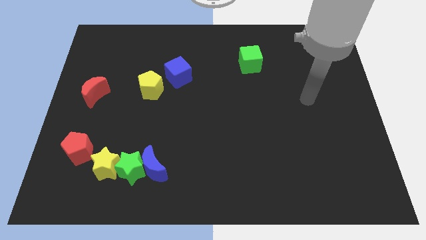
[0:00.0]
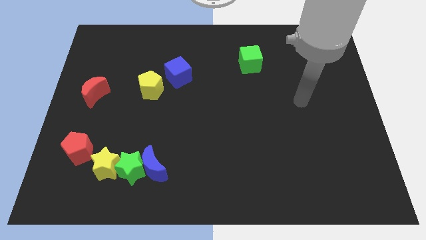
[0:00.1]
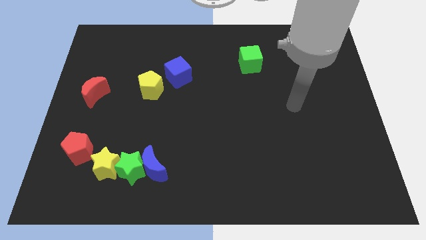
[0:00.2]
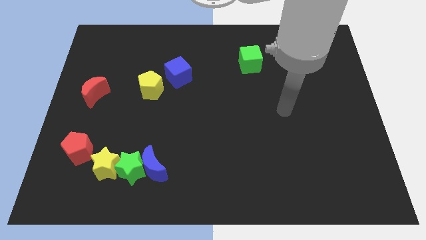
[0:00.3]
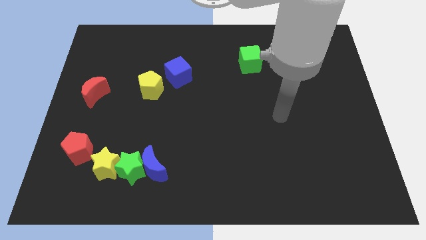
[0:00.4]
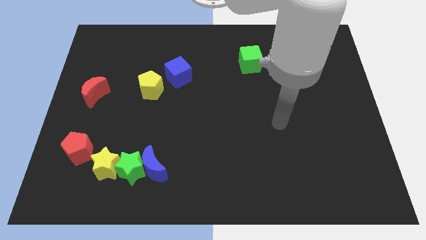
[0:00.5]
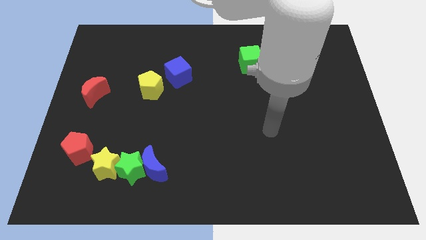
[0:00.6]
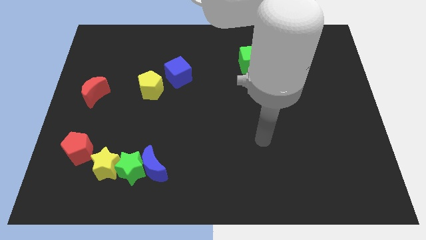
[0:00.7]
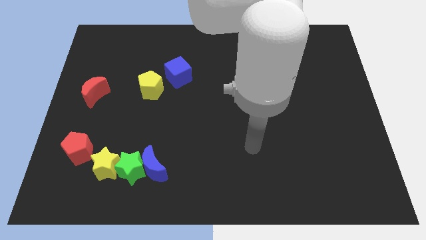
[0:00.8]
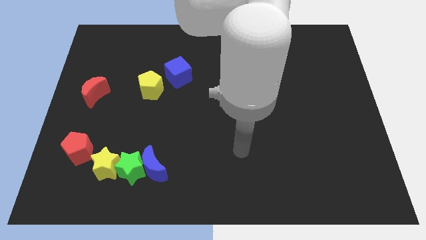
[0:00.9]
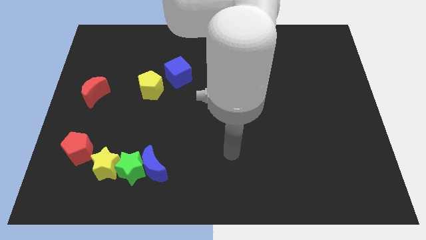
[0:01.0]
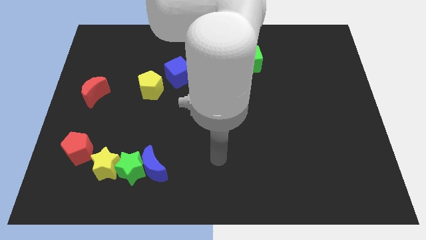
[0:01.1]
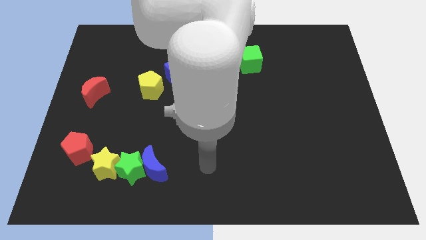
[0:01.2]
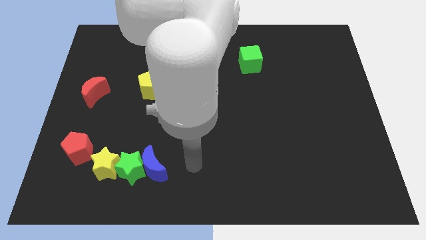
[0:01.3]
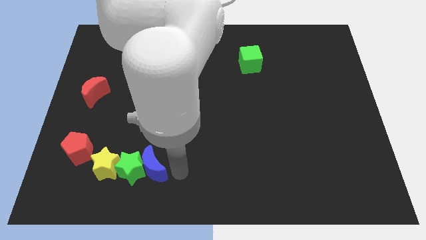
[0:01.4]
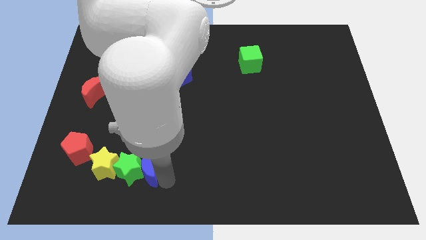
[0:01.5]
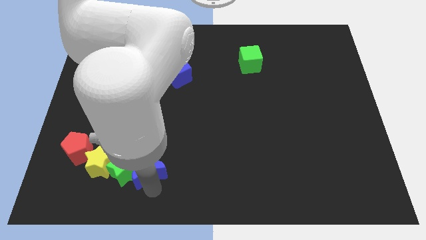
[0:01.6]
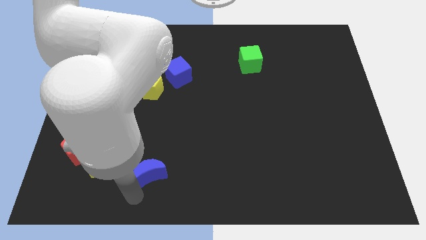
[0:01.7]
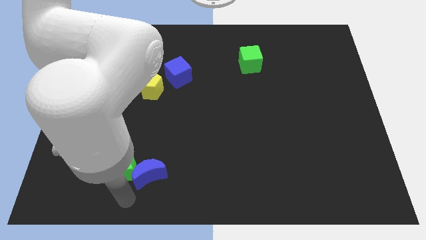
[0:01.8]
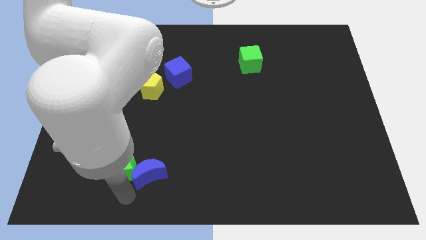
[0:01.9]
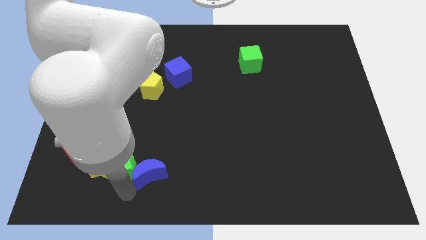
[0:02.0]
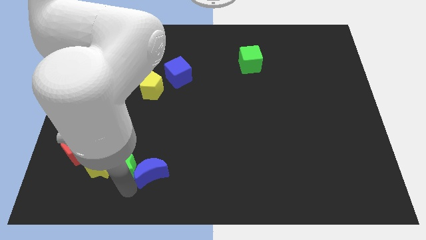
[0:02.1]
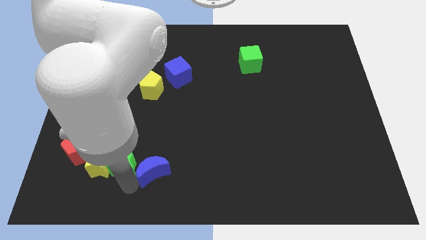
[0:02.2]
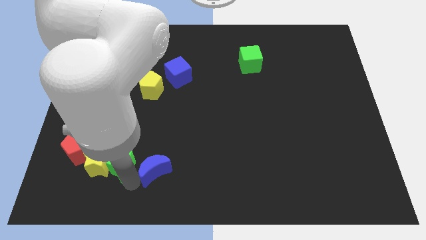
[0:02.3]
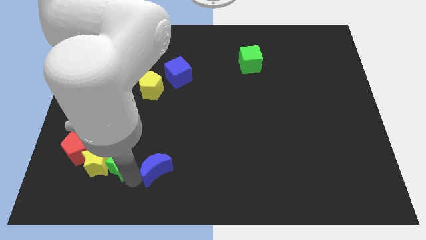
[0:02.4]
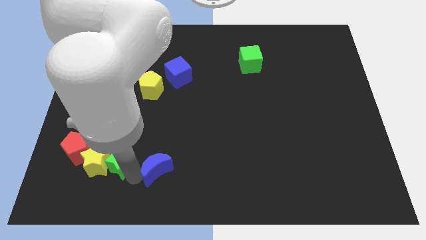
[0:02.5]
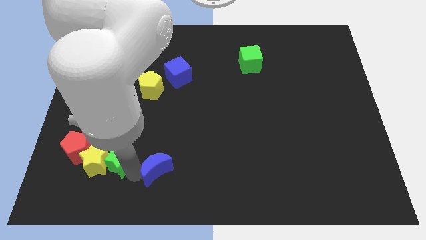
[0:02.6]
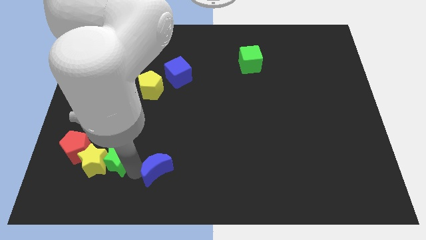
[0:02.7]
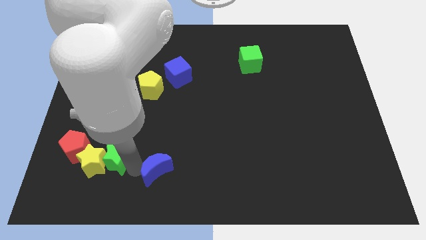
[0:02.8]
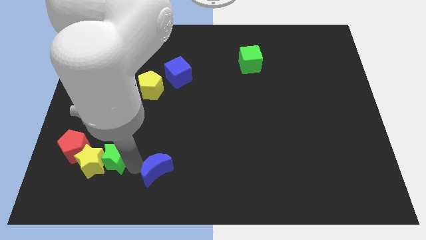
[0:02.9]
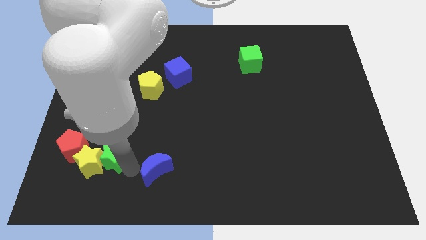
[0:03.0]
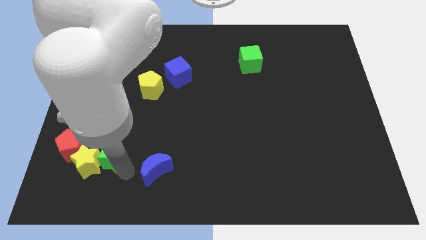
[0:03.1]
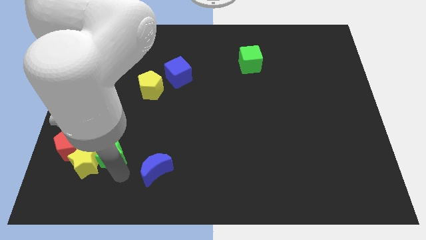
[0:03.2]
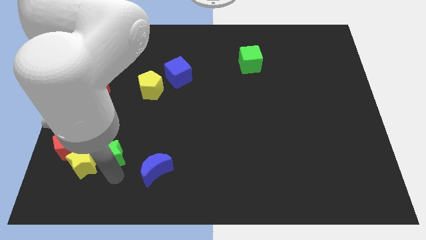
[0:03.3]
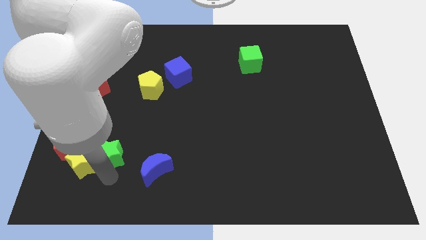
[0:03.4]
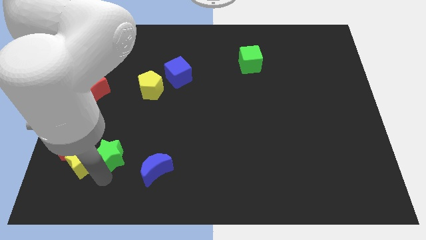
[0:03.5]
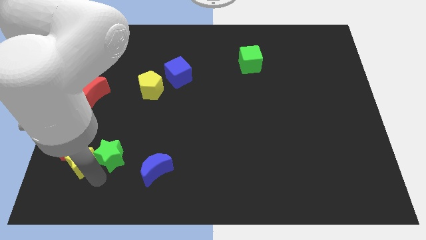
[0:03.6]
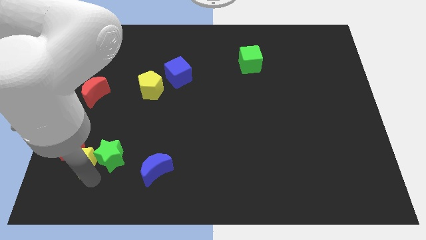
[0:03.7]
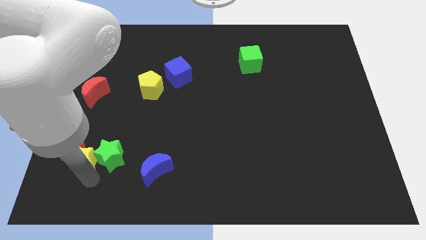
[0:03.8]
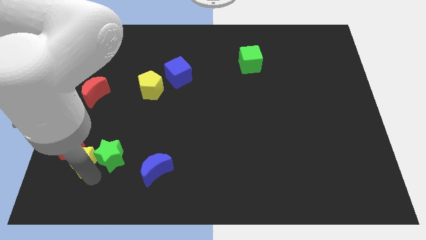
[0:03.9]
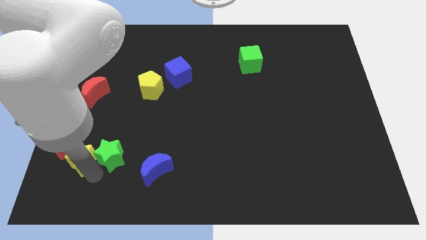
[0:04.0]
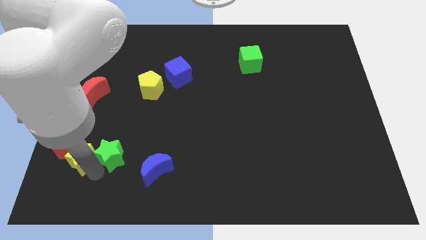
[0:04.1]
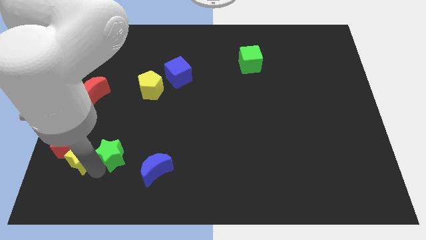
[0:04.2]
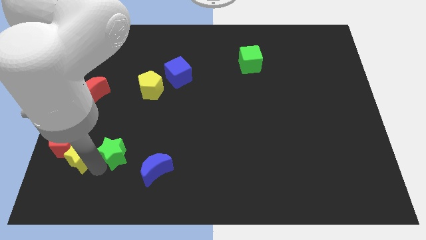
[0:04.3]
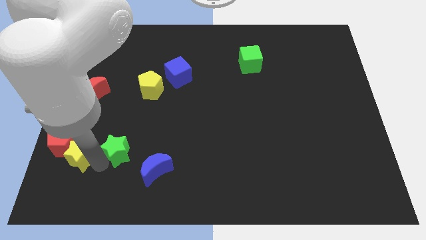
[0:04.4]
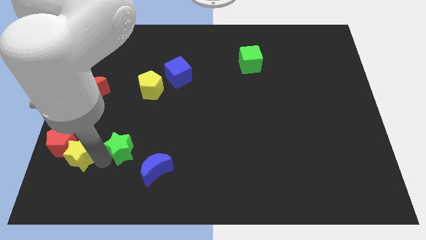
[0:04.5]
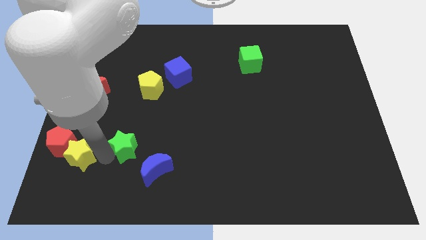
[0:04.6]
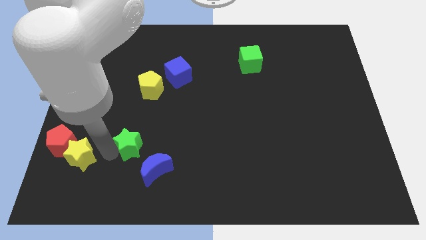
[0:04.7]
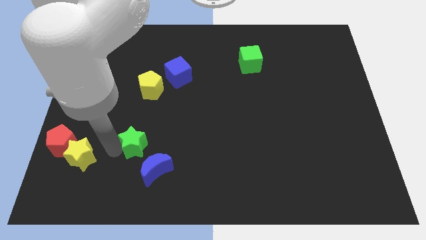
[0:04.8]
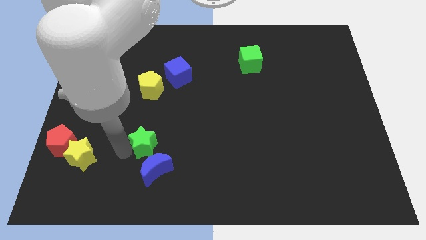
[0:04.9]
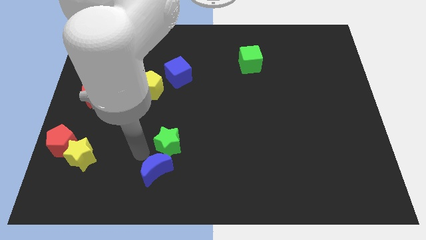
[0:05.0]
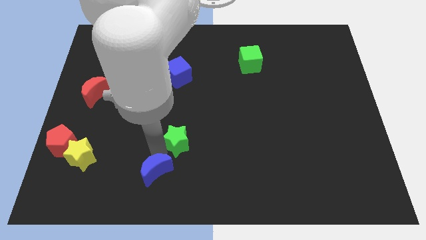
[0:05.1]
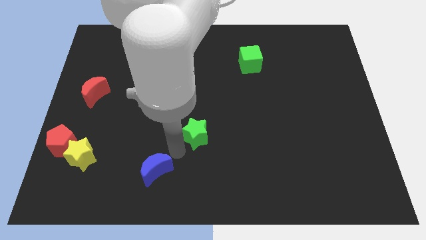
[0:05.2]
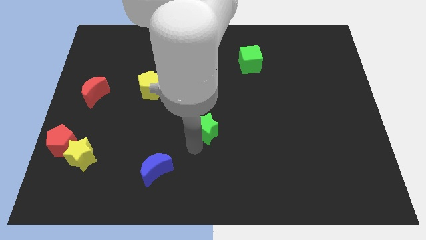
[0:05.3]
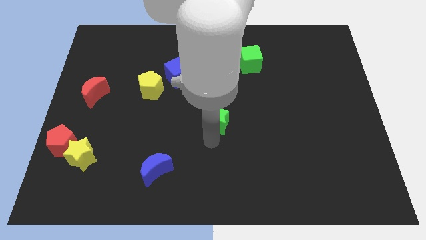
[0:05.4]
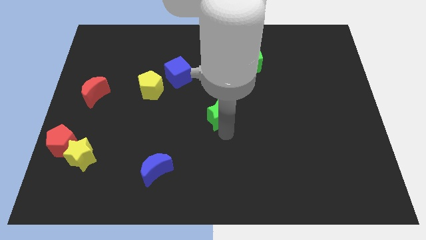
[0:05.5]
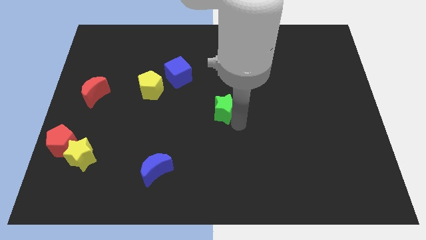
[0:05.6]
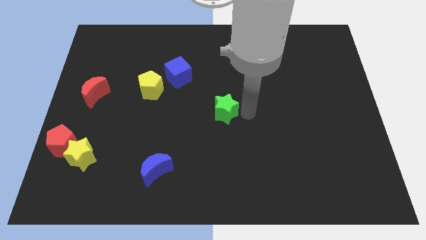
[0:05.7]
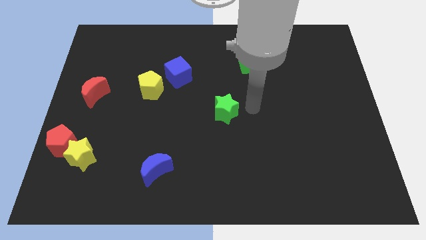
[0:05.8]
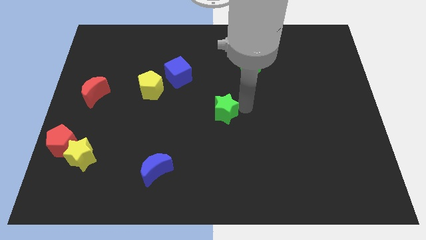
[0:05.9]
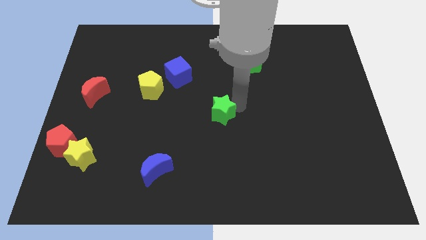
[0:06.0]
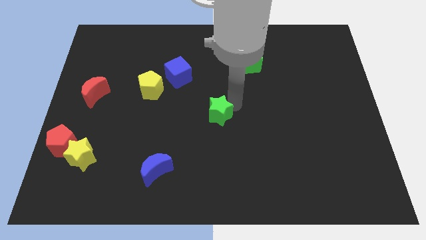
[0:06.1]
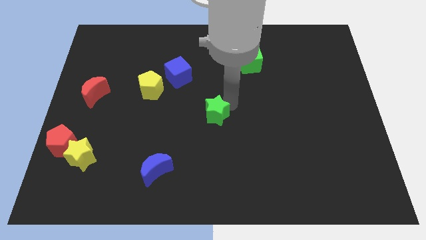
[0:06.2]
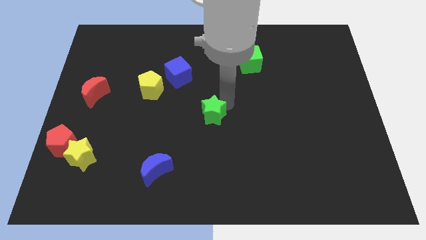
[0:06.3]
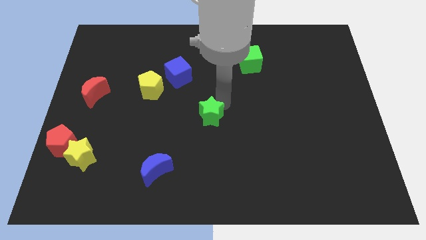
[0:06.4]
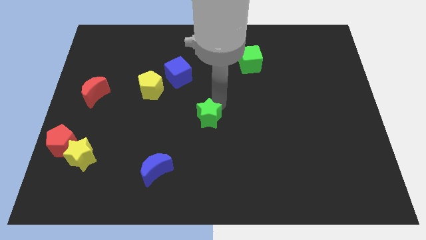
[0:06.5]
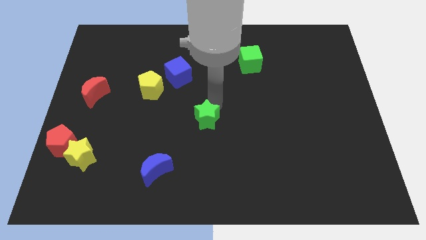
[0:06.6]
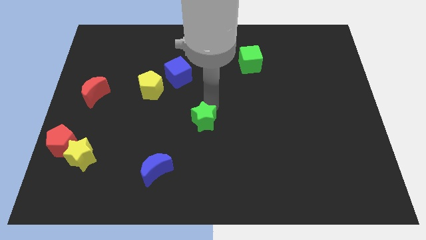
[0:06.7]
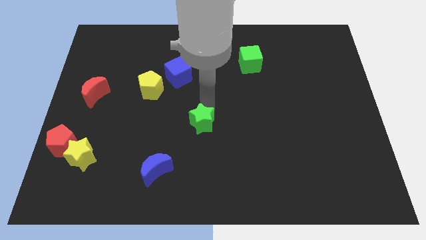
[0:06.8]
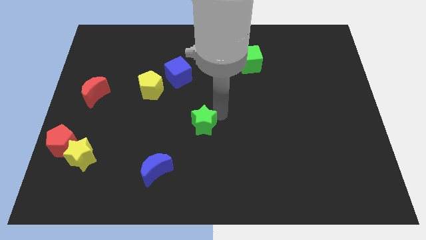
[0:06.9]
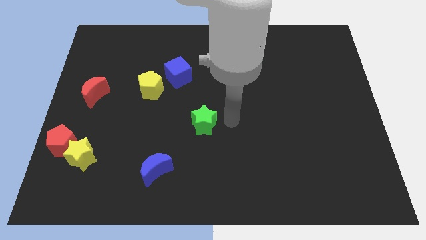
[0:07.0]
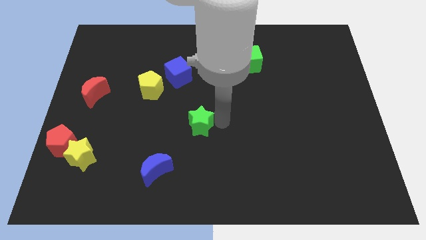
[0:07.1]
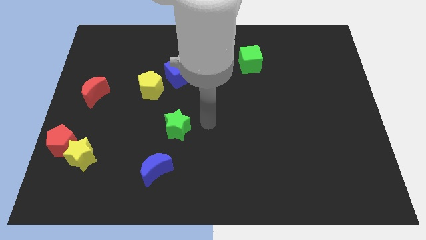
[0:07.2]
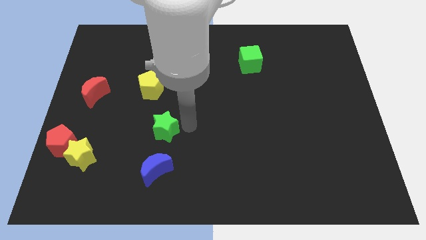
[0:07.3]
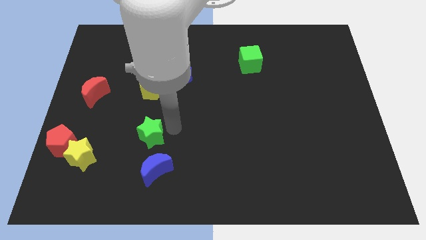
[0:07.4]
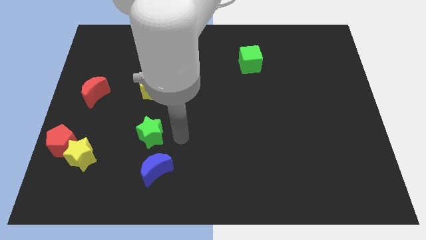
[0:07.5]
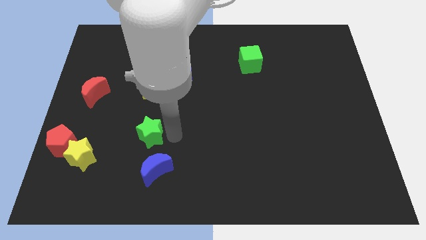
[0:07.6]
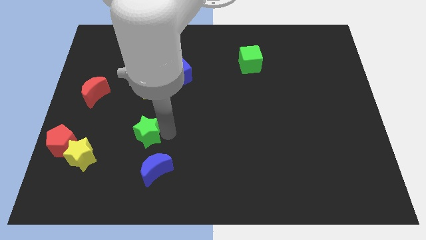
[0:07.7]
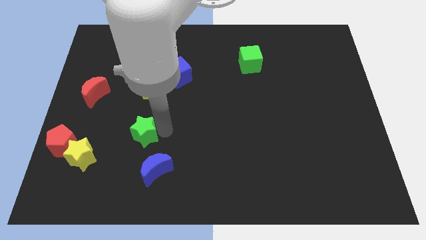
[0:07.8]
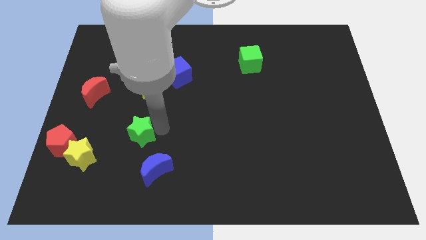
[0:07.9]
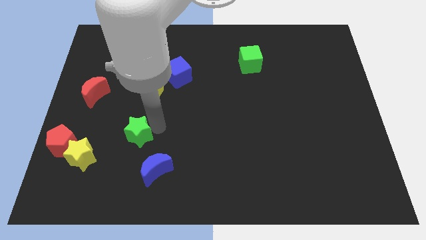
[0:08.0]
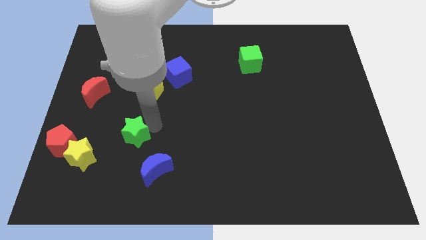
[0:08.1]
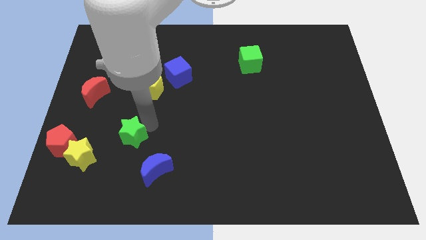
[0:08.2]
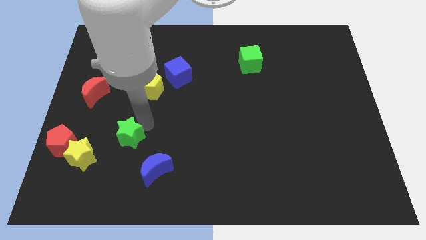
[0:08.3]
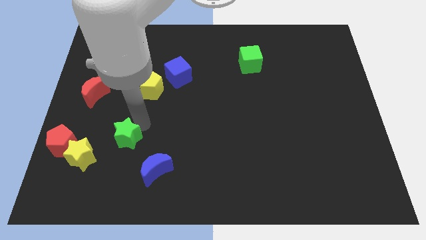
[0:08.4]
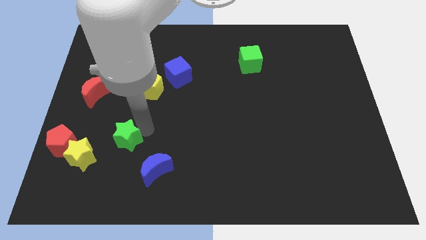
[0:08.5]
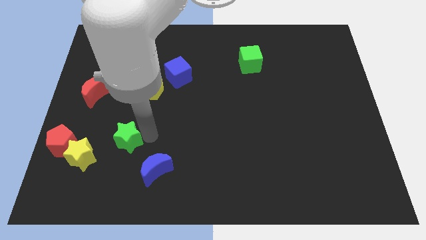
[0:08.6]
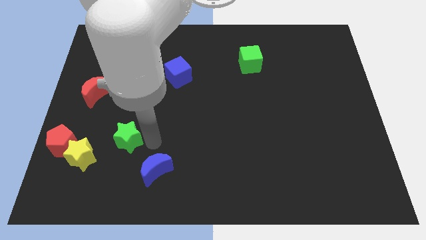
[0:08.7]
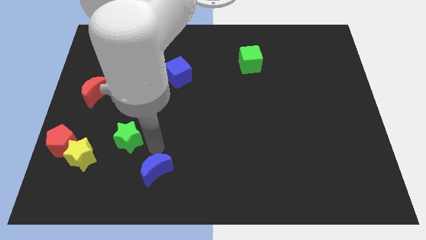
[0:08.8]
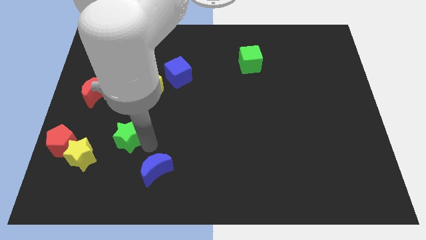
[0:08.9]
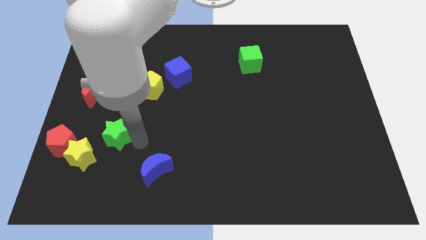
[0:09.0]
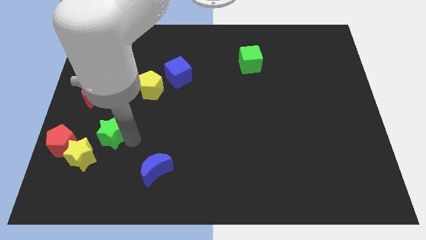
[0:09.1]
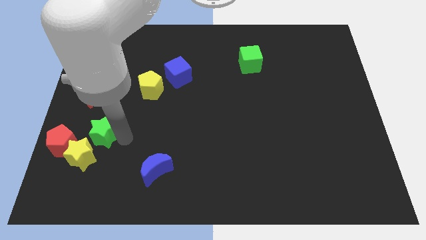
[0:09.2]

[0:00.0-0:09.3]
put the green star diagonally up and to the right of the red pentagon
